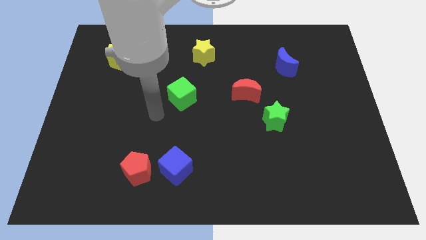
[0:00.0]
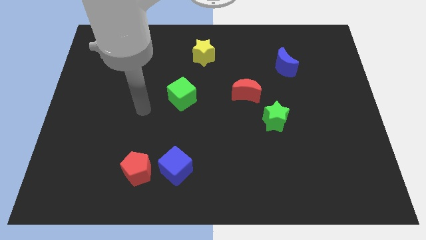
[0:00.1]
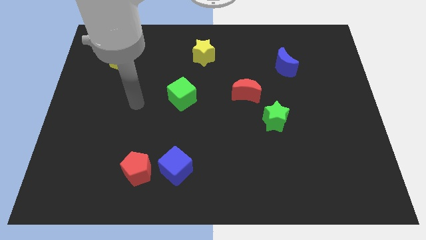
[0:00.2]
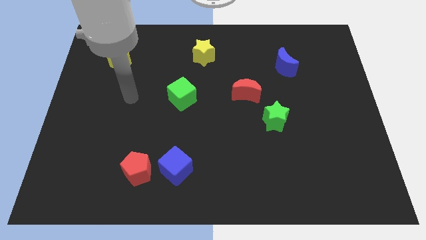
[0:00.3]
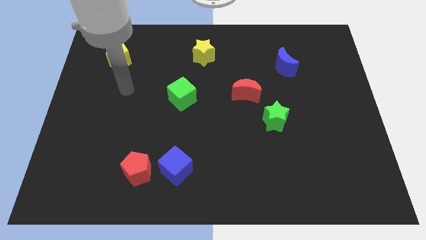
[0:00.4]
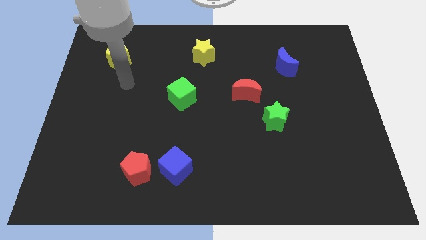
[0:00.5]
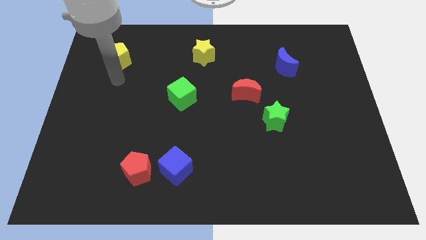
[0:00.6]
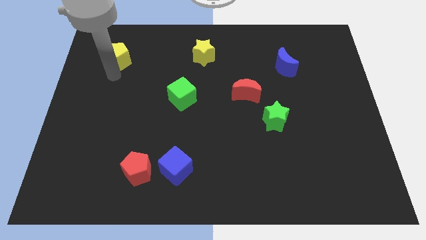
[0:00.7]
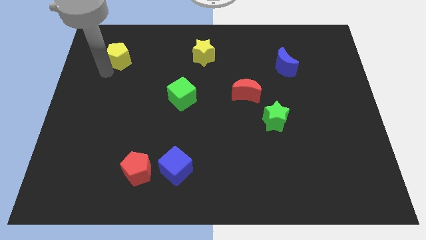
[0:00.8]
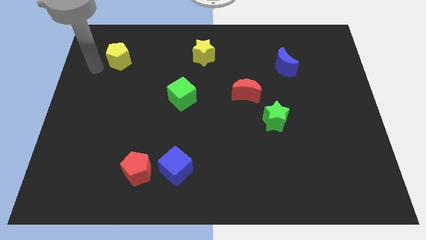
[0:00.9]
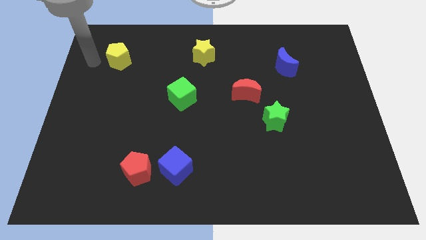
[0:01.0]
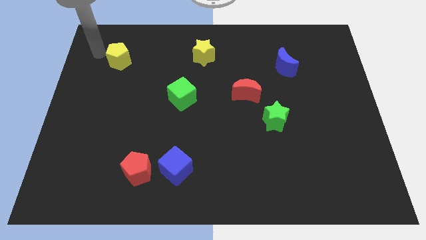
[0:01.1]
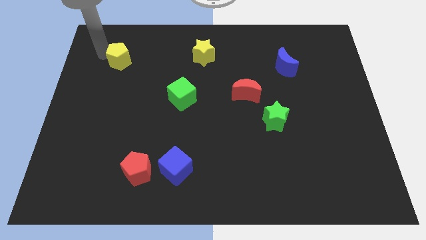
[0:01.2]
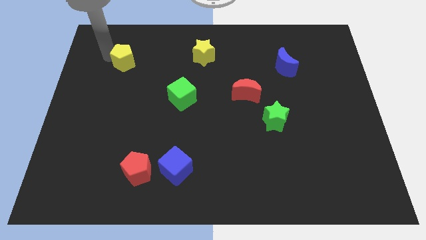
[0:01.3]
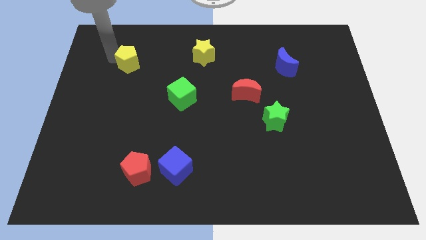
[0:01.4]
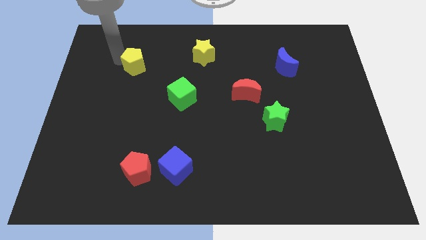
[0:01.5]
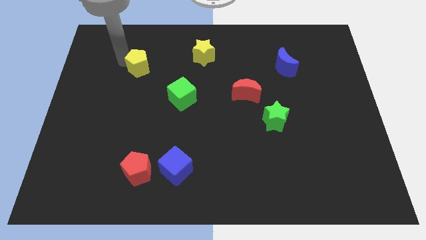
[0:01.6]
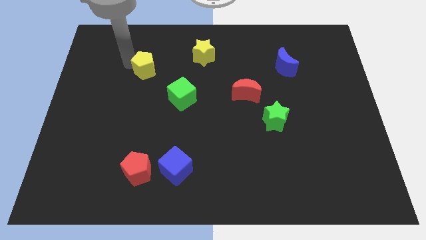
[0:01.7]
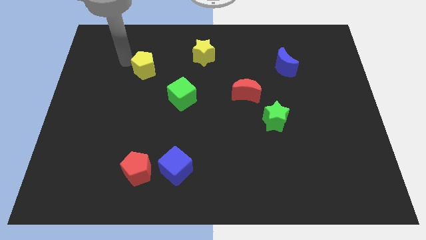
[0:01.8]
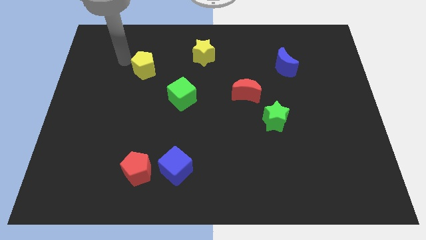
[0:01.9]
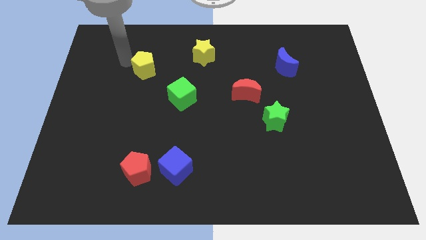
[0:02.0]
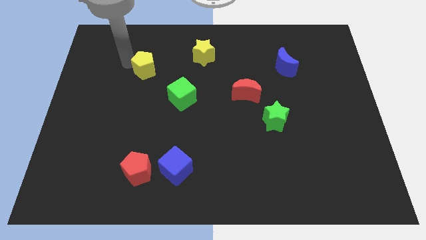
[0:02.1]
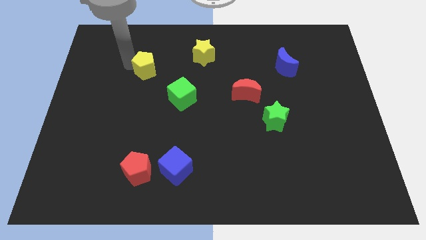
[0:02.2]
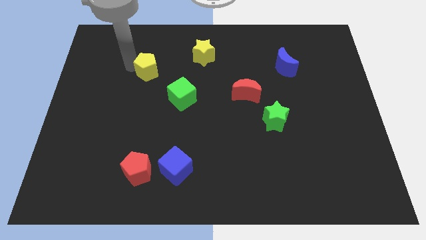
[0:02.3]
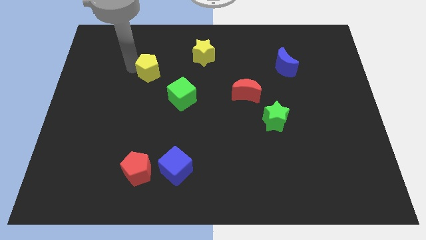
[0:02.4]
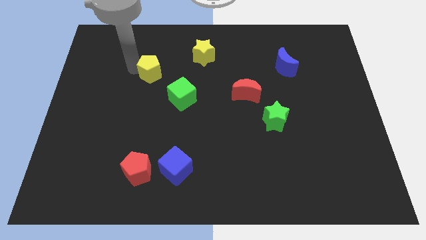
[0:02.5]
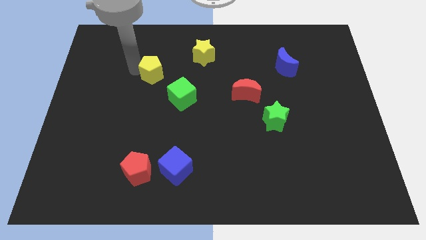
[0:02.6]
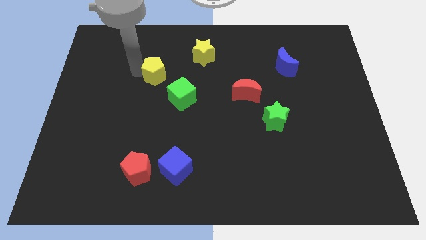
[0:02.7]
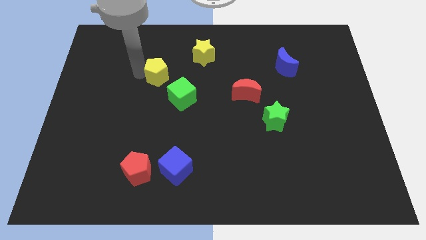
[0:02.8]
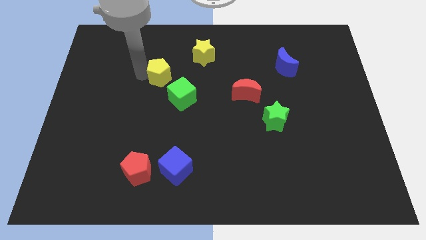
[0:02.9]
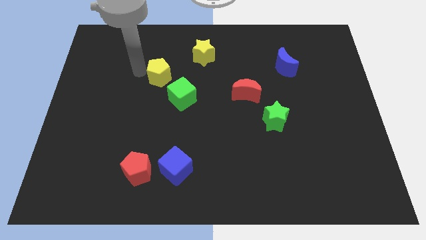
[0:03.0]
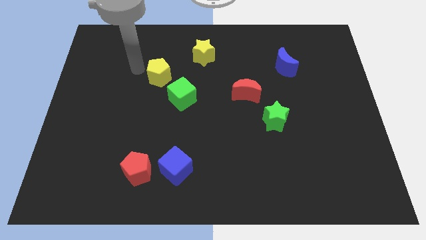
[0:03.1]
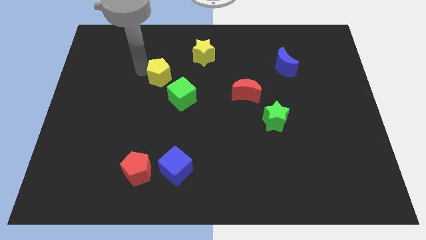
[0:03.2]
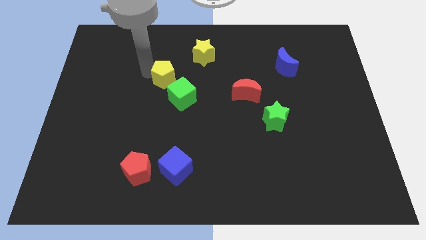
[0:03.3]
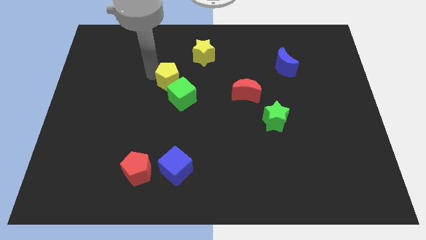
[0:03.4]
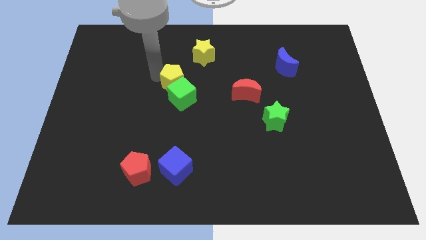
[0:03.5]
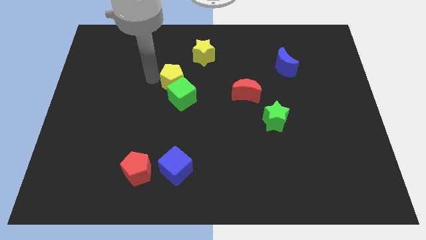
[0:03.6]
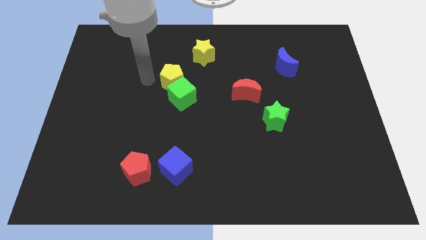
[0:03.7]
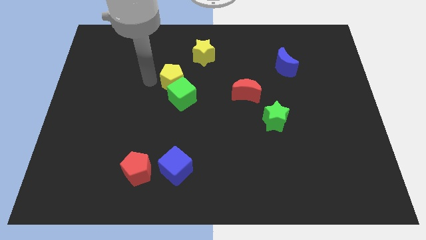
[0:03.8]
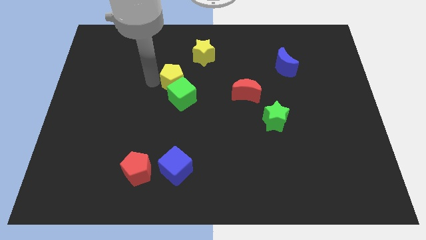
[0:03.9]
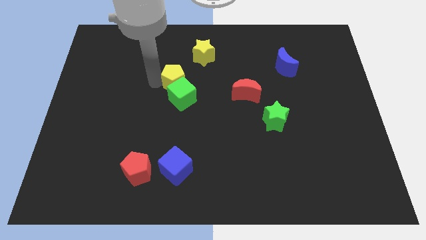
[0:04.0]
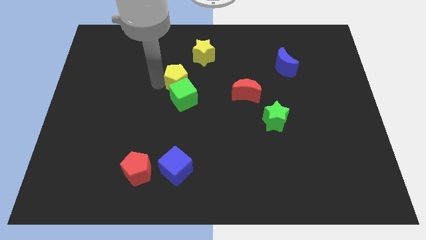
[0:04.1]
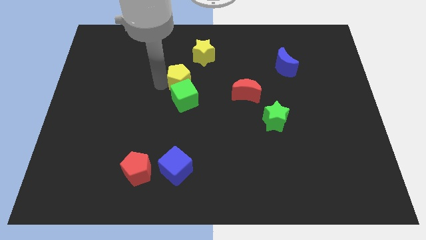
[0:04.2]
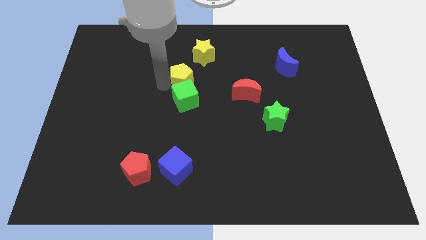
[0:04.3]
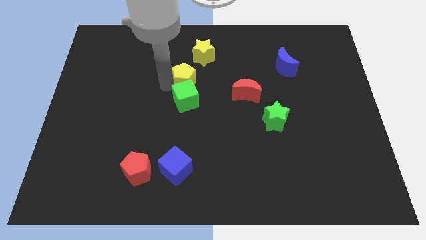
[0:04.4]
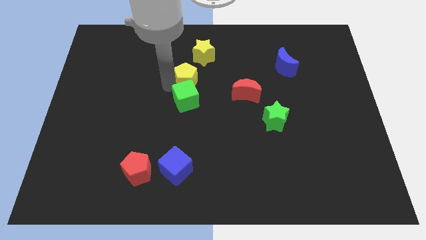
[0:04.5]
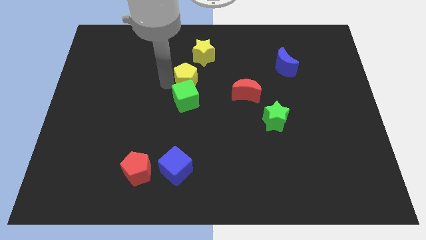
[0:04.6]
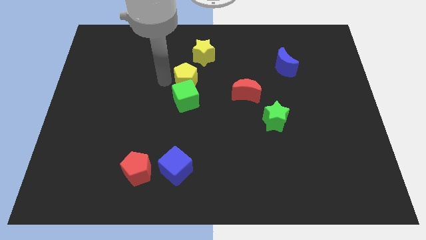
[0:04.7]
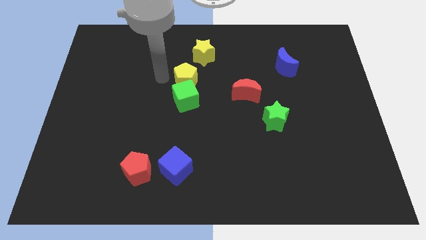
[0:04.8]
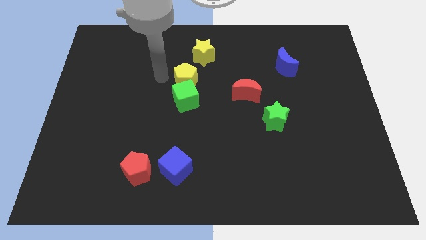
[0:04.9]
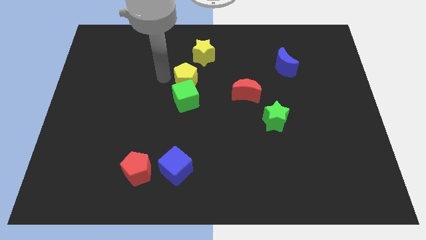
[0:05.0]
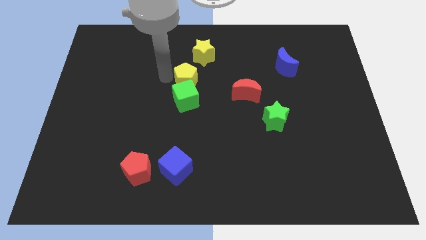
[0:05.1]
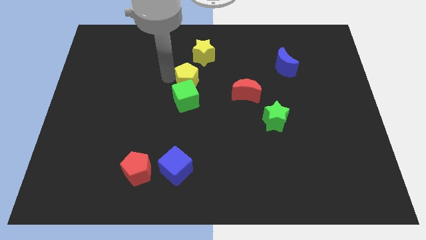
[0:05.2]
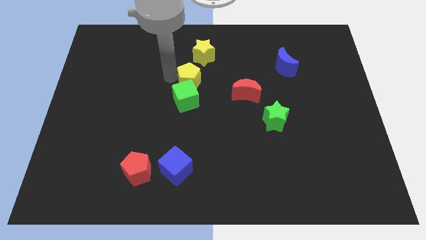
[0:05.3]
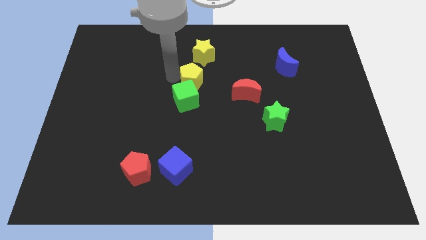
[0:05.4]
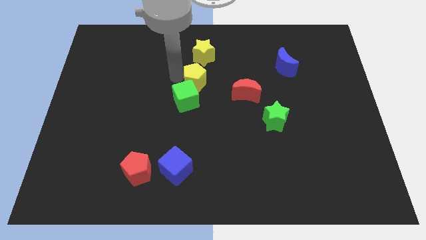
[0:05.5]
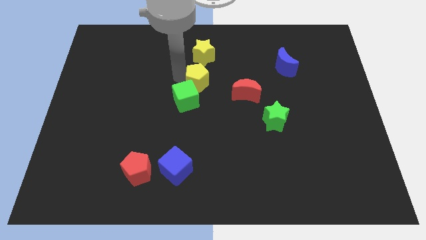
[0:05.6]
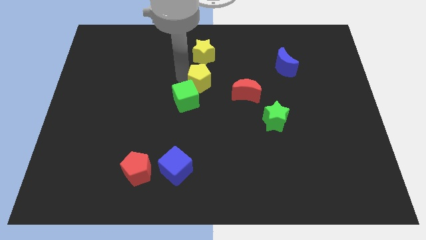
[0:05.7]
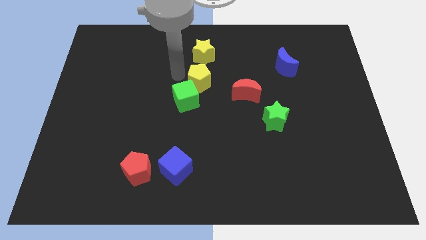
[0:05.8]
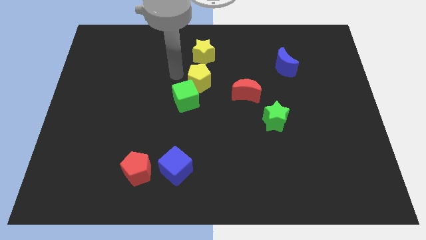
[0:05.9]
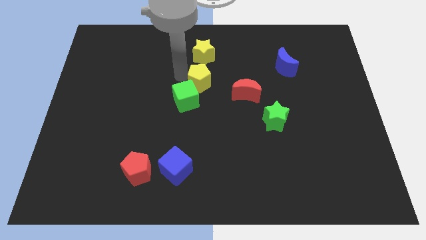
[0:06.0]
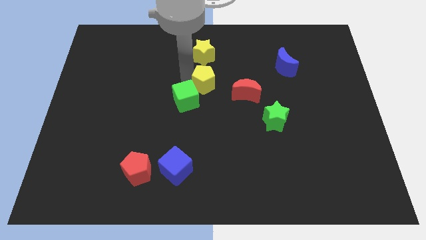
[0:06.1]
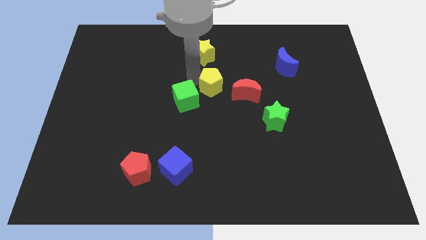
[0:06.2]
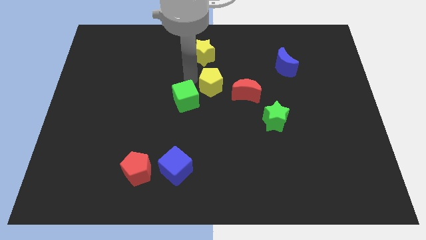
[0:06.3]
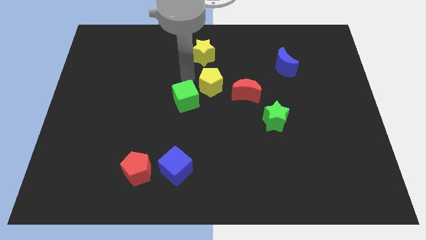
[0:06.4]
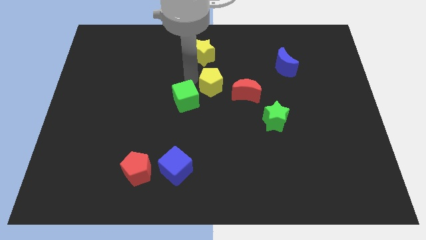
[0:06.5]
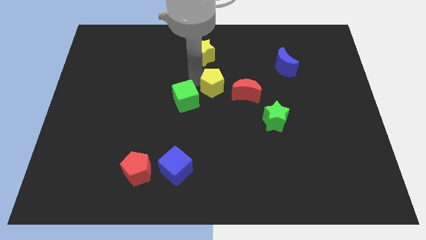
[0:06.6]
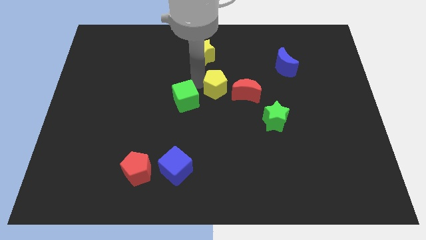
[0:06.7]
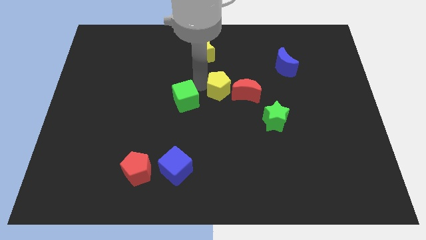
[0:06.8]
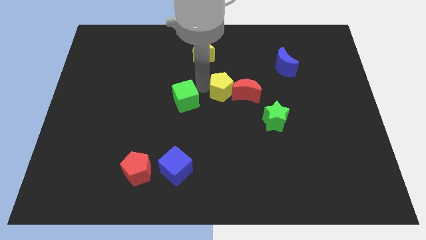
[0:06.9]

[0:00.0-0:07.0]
slide the yellow pentagon towards the red moon

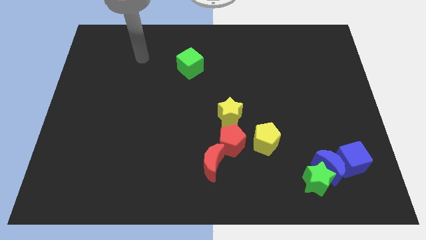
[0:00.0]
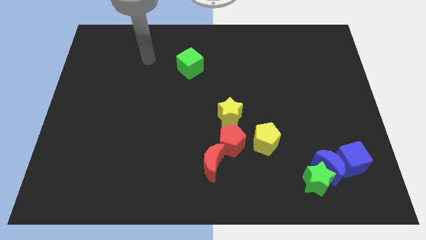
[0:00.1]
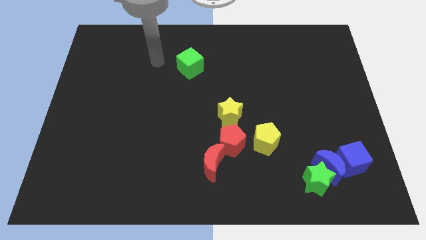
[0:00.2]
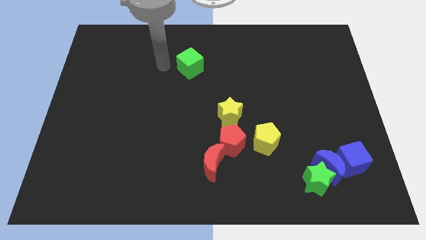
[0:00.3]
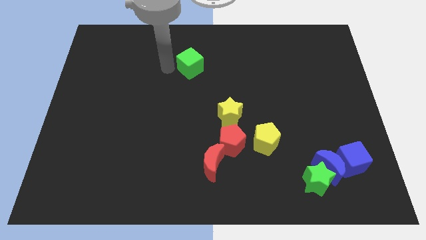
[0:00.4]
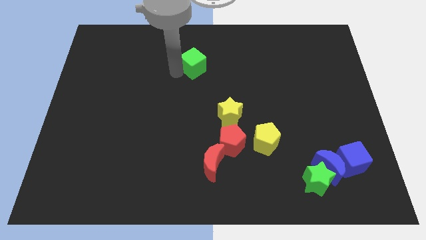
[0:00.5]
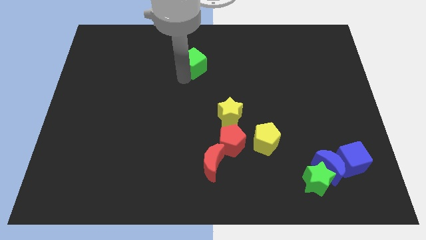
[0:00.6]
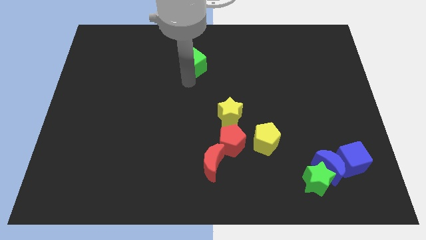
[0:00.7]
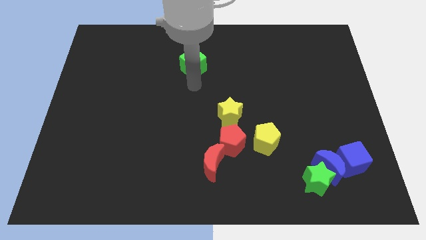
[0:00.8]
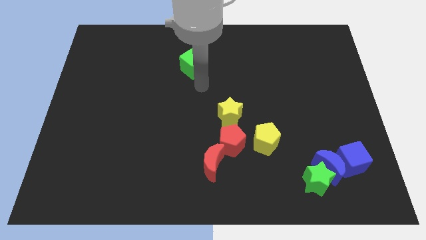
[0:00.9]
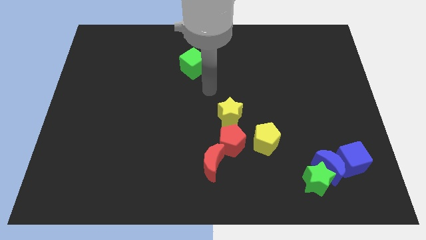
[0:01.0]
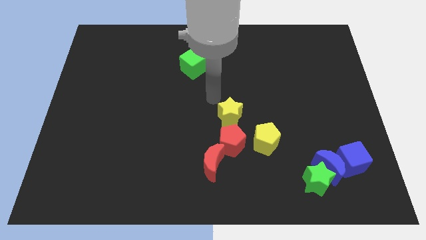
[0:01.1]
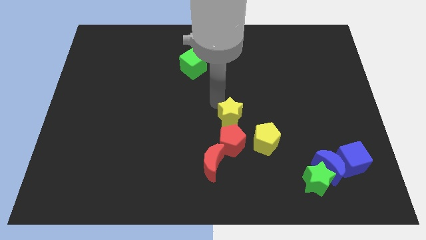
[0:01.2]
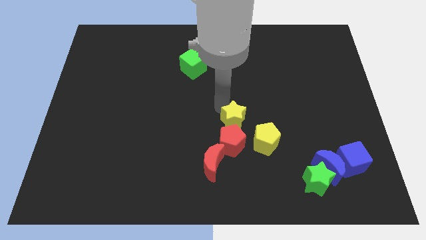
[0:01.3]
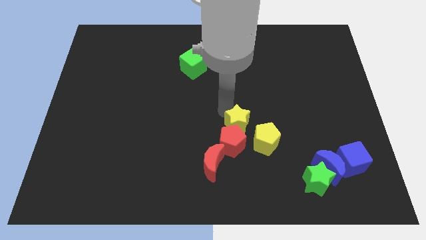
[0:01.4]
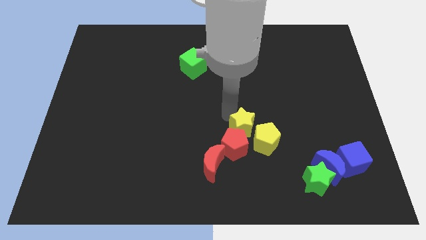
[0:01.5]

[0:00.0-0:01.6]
slide the yellow star close to the yellow pentagon
